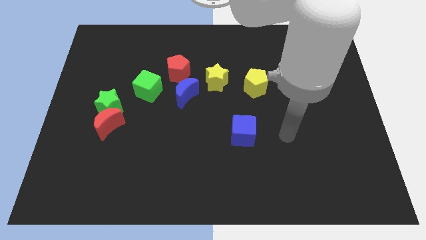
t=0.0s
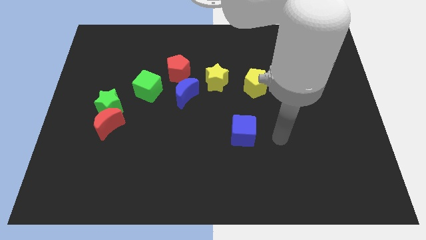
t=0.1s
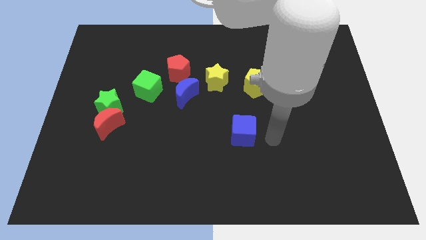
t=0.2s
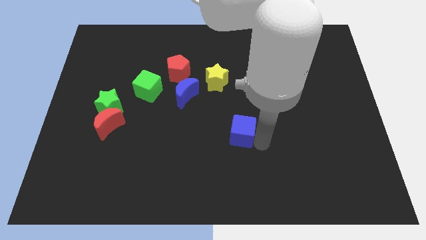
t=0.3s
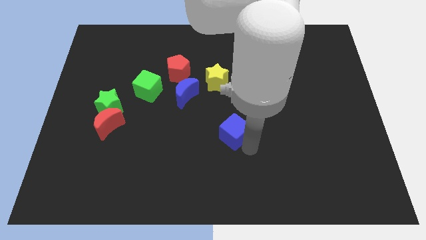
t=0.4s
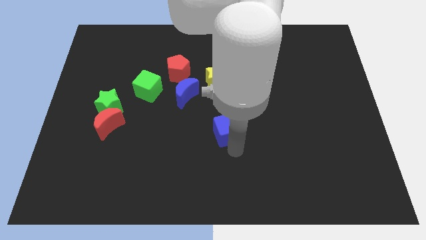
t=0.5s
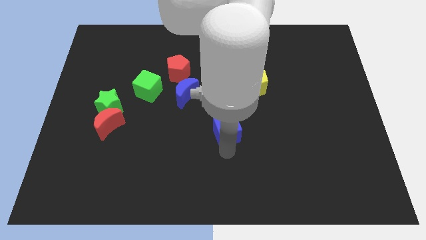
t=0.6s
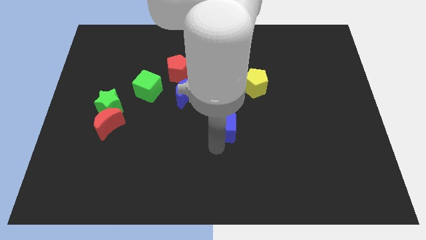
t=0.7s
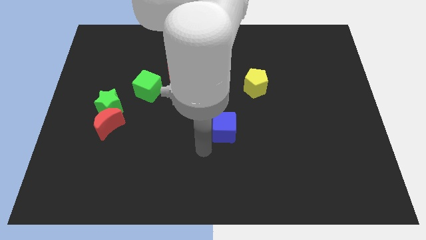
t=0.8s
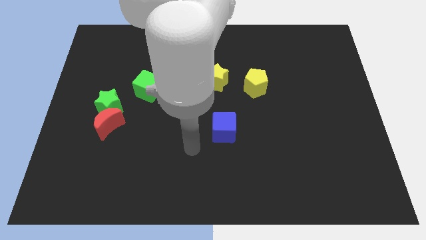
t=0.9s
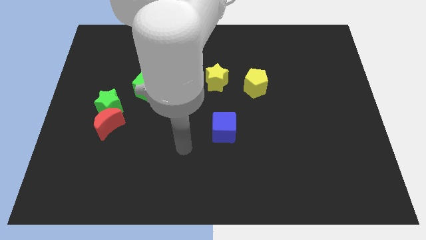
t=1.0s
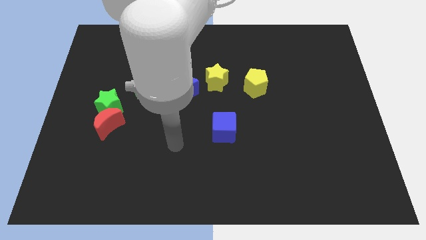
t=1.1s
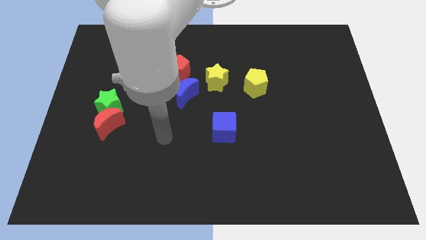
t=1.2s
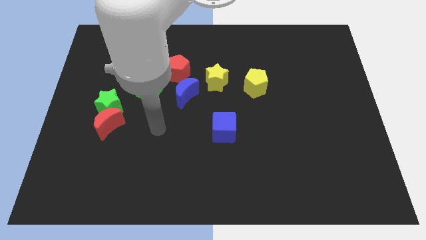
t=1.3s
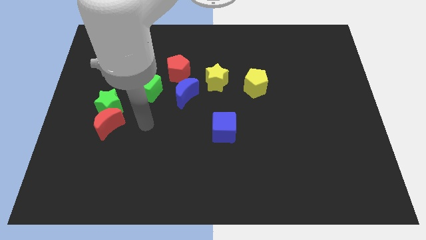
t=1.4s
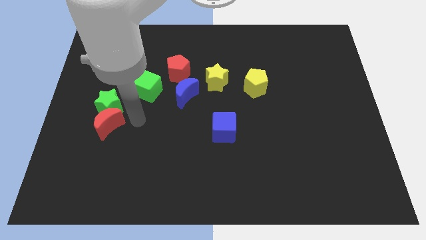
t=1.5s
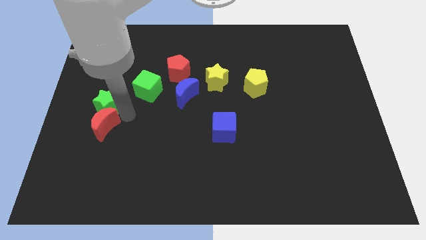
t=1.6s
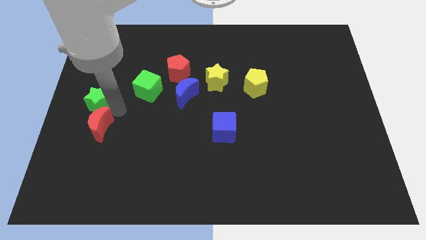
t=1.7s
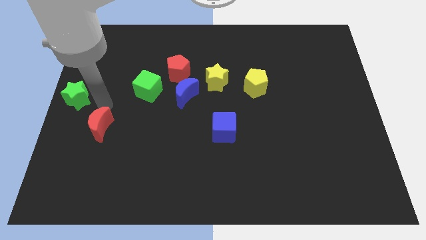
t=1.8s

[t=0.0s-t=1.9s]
separate the red moon from the green star

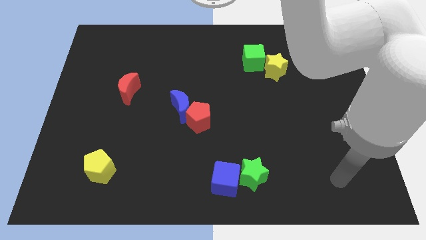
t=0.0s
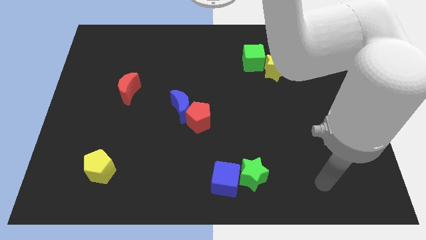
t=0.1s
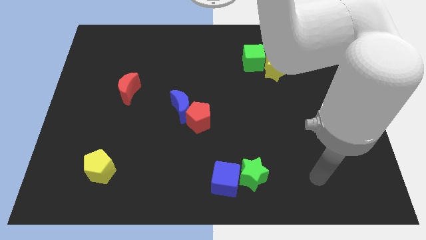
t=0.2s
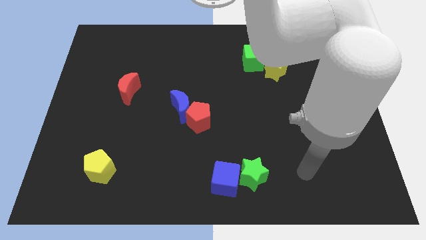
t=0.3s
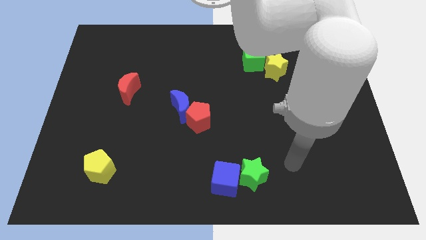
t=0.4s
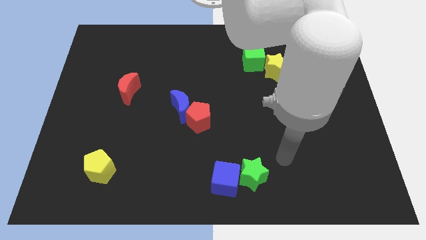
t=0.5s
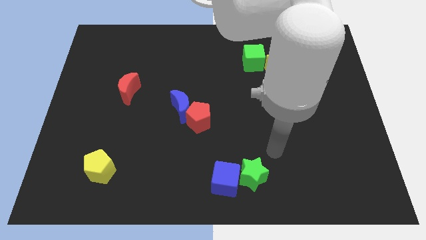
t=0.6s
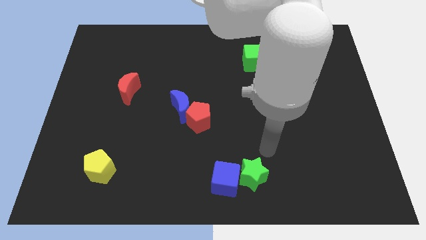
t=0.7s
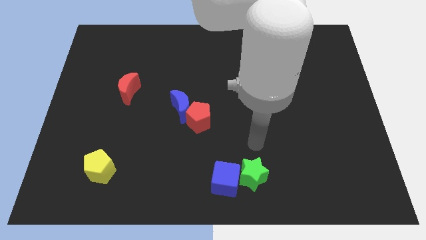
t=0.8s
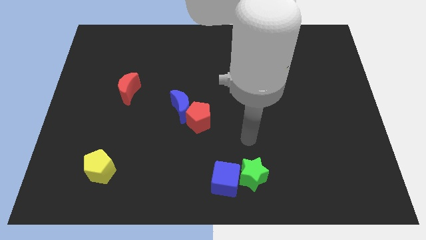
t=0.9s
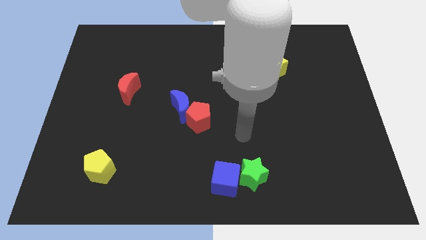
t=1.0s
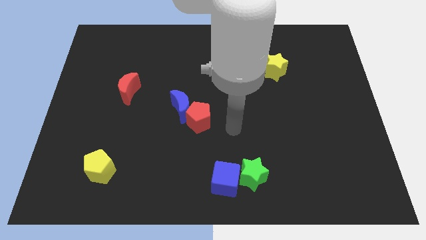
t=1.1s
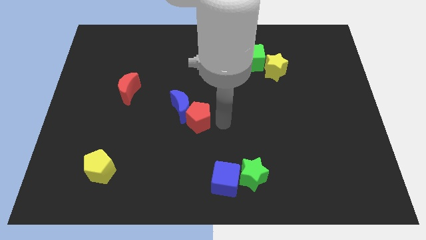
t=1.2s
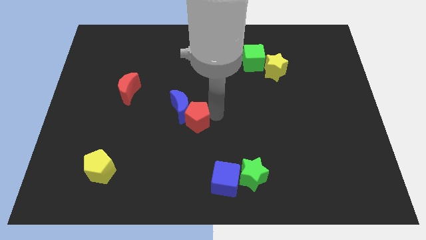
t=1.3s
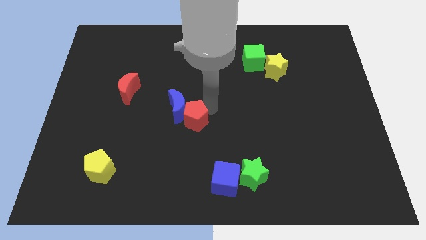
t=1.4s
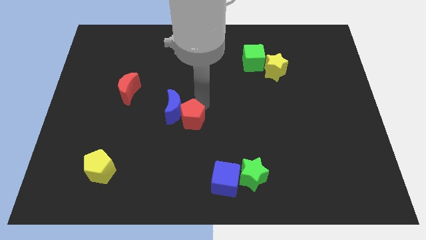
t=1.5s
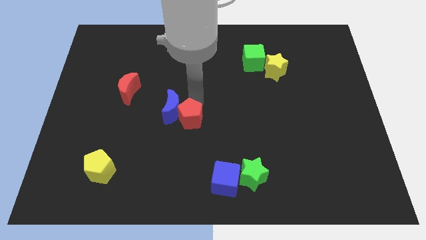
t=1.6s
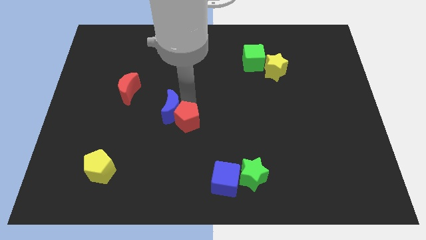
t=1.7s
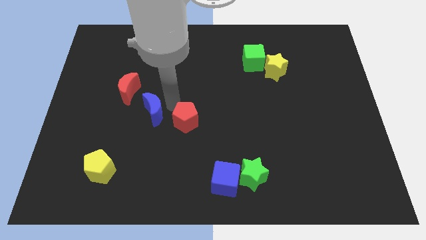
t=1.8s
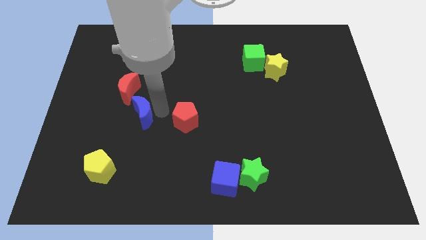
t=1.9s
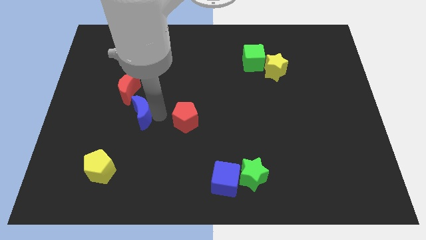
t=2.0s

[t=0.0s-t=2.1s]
pull the red pentagon apart from the blue moon

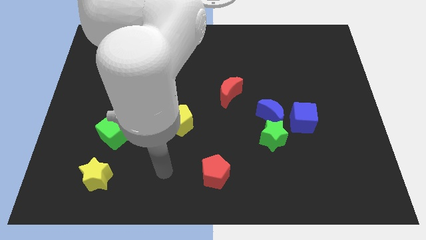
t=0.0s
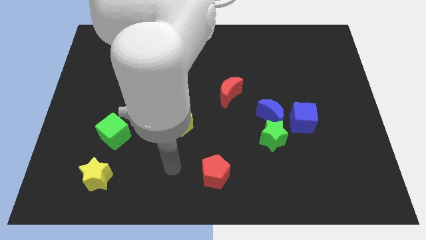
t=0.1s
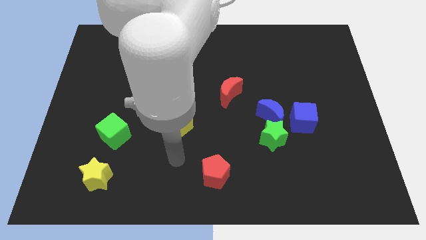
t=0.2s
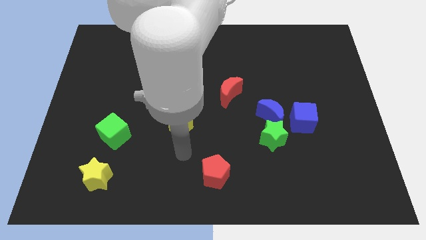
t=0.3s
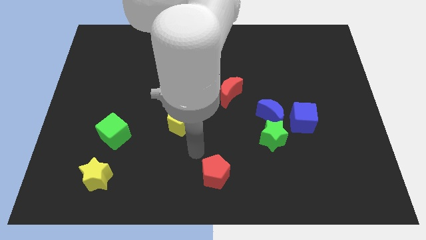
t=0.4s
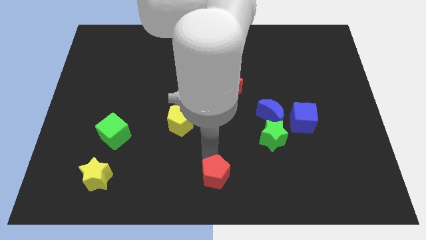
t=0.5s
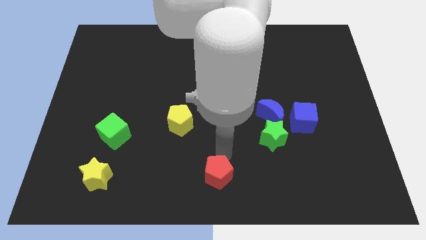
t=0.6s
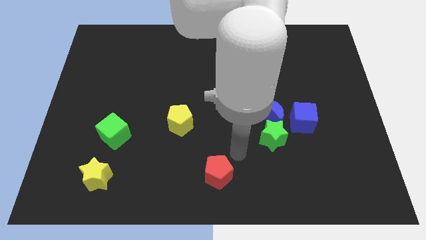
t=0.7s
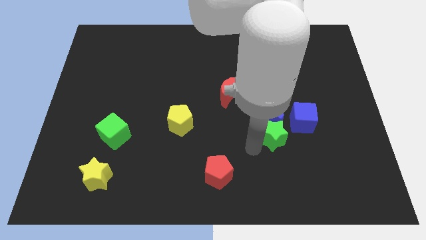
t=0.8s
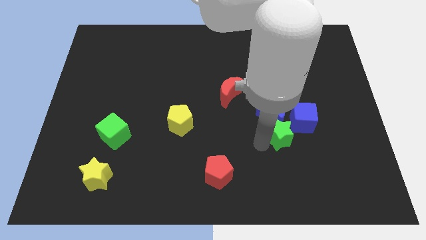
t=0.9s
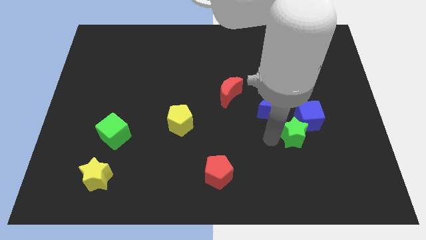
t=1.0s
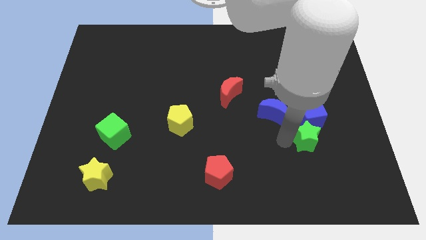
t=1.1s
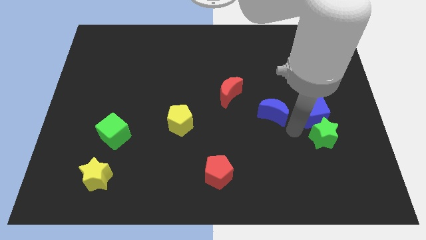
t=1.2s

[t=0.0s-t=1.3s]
separate the blue moon from the green star and blue cube

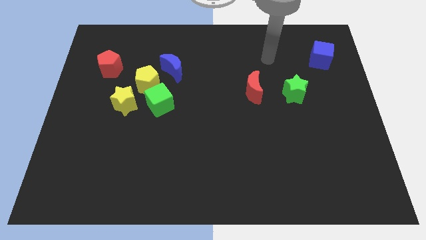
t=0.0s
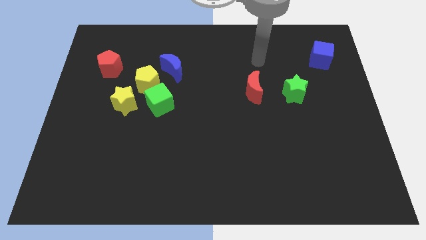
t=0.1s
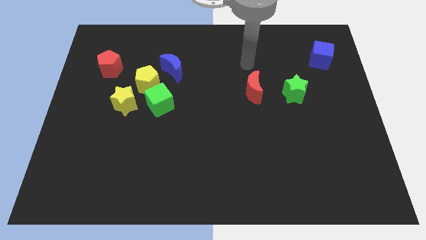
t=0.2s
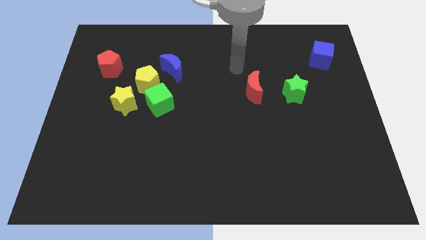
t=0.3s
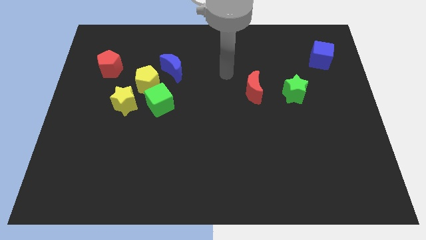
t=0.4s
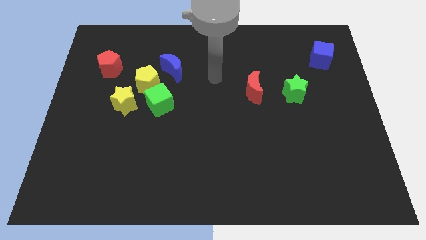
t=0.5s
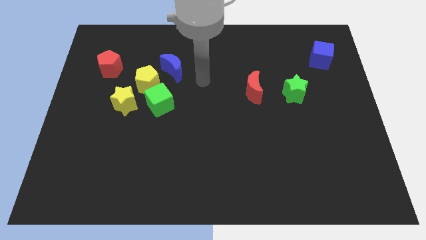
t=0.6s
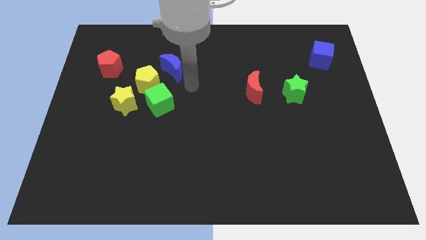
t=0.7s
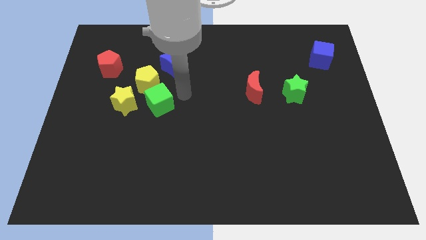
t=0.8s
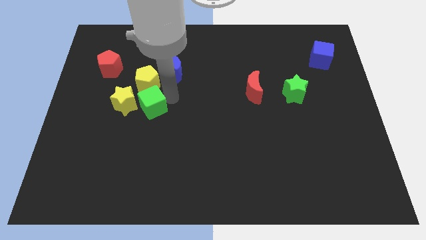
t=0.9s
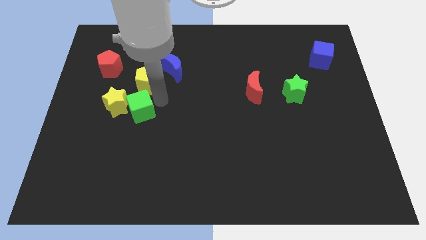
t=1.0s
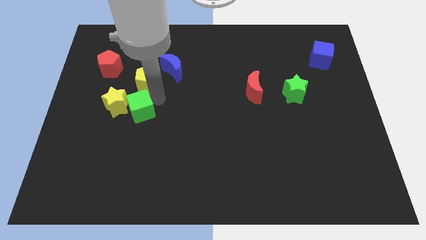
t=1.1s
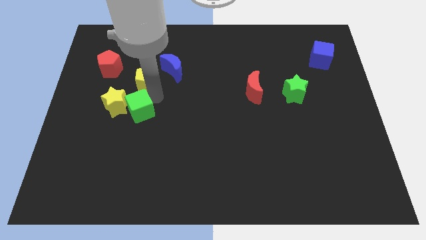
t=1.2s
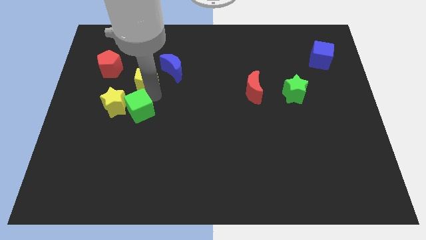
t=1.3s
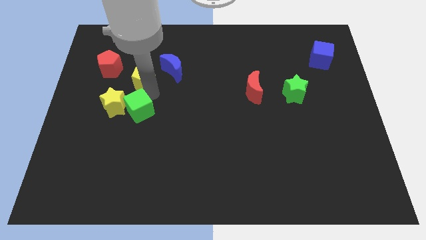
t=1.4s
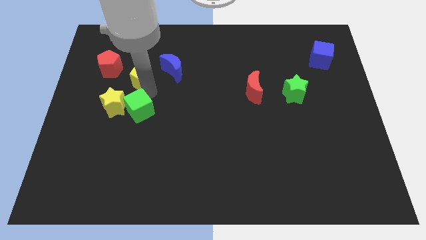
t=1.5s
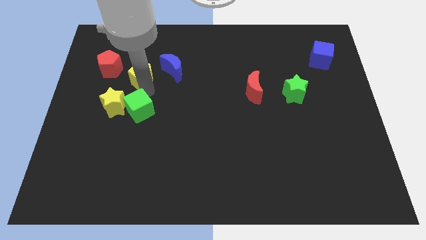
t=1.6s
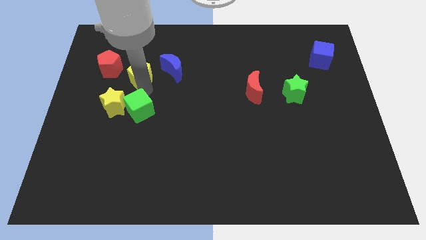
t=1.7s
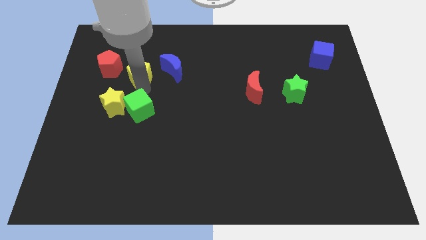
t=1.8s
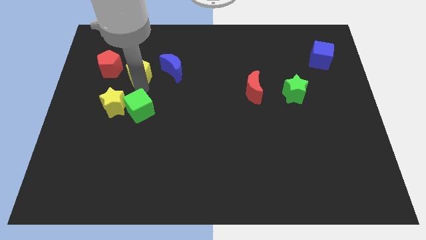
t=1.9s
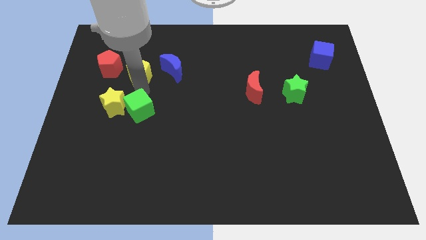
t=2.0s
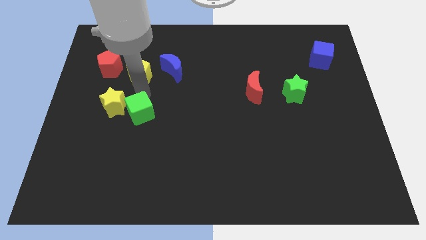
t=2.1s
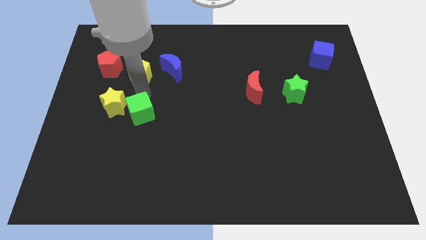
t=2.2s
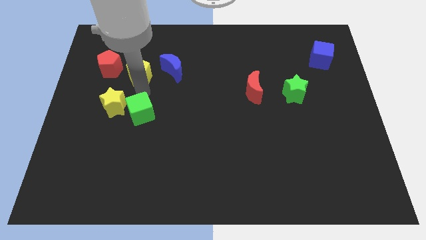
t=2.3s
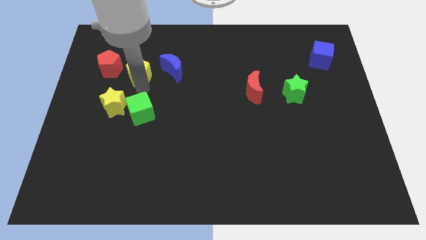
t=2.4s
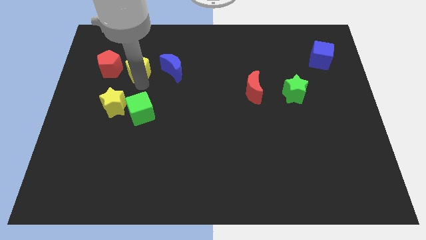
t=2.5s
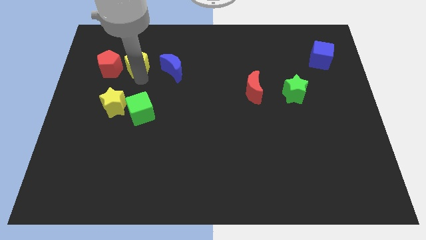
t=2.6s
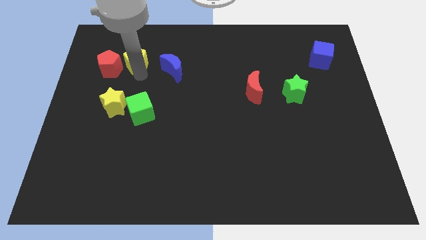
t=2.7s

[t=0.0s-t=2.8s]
pull the yellow pentagon apart from the green cube, blue moon, and yellow star

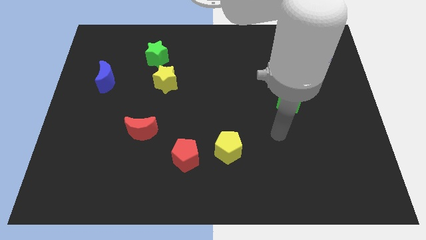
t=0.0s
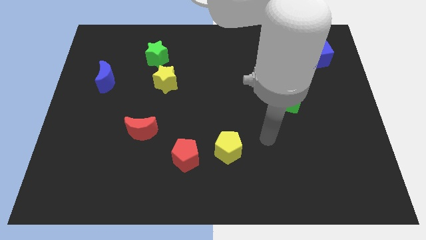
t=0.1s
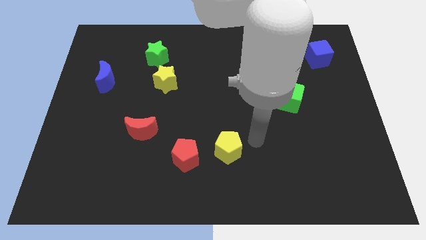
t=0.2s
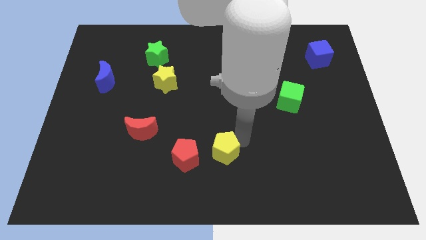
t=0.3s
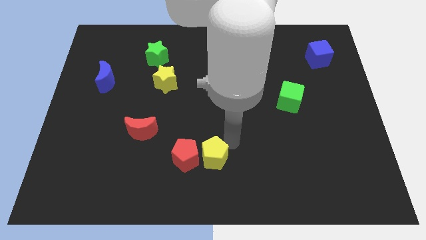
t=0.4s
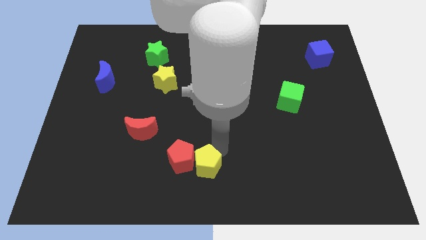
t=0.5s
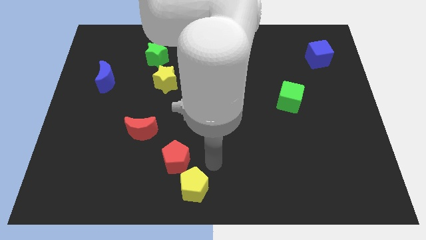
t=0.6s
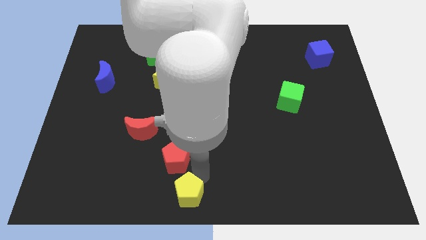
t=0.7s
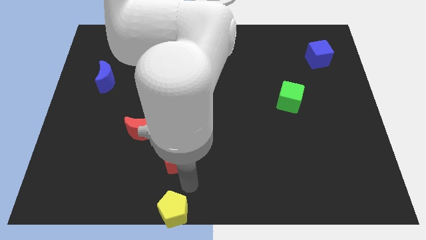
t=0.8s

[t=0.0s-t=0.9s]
move the red pentagon away from the yellow pentagon

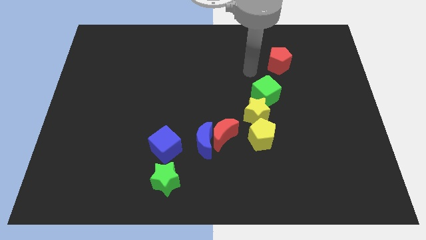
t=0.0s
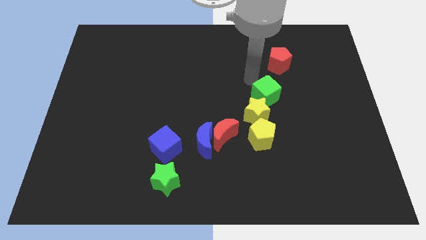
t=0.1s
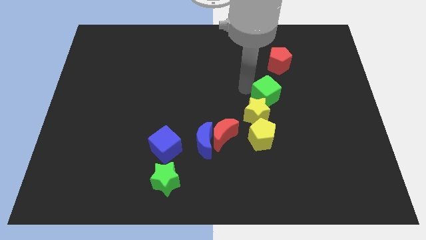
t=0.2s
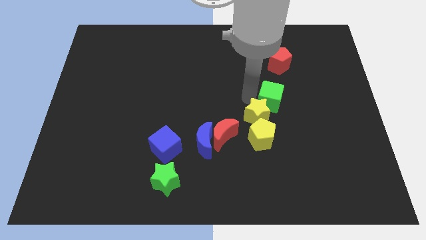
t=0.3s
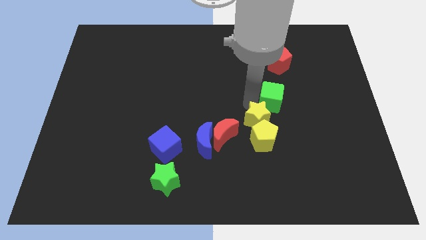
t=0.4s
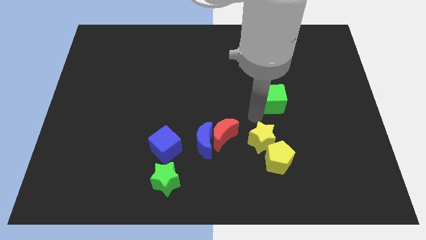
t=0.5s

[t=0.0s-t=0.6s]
pull the green cube apart from the yellow star
